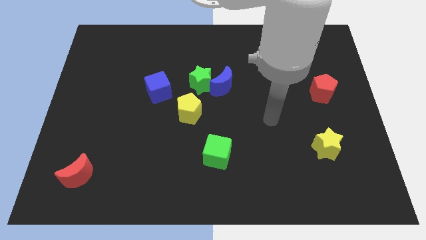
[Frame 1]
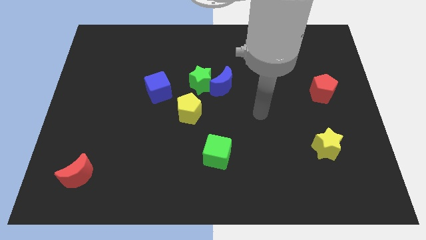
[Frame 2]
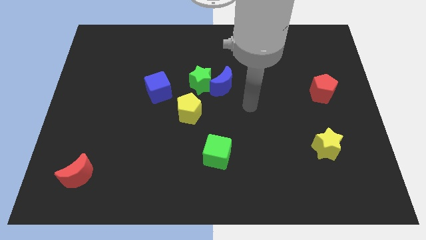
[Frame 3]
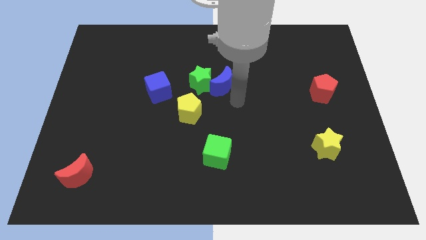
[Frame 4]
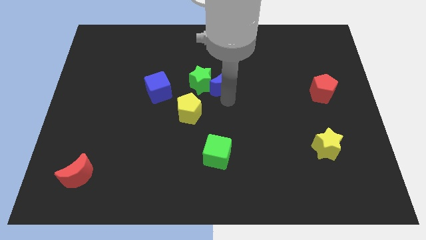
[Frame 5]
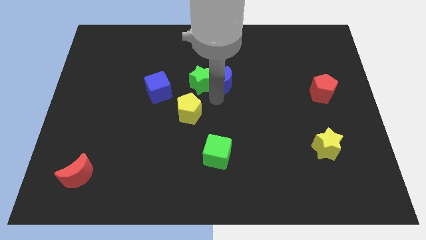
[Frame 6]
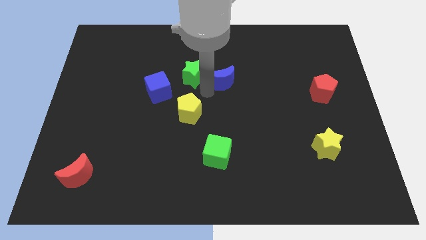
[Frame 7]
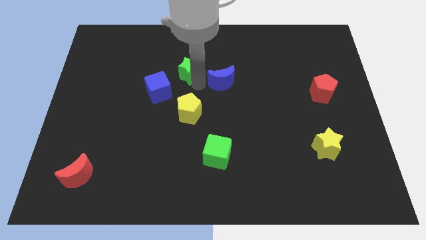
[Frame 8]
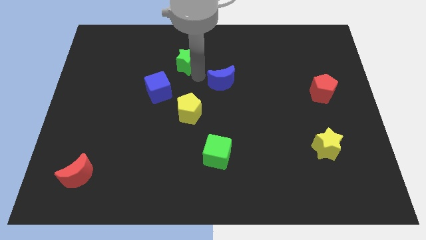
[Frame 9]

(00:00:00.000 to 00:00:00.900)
separate the blue moon from the green star

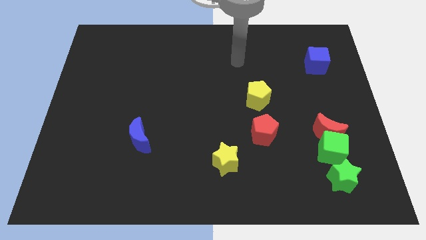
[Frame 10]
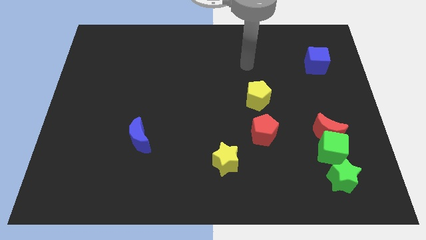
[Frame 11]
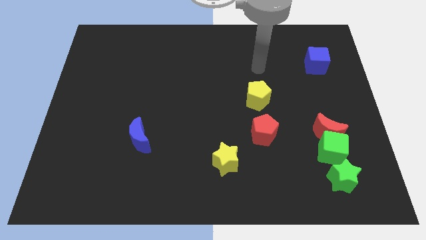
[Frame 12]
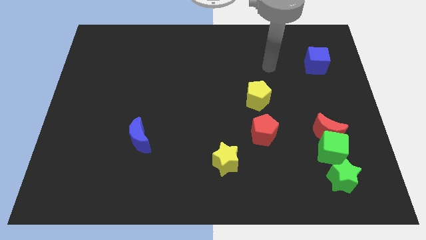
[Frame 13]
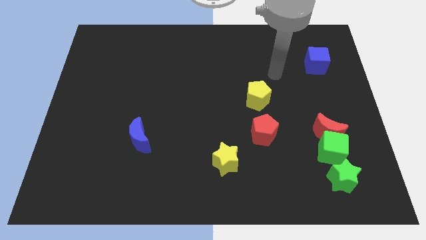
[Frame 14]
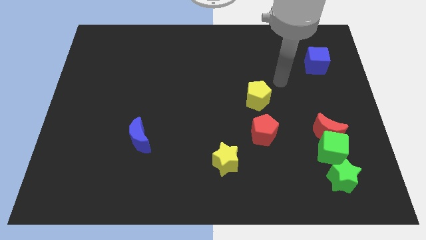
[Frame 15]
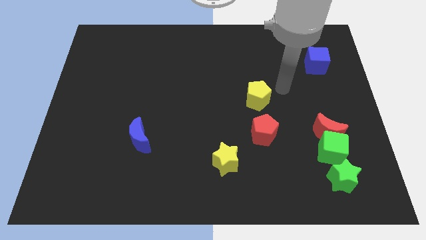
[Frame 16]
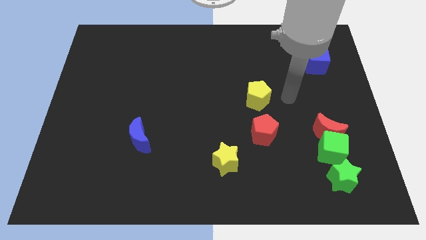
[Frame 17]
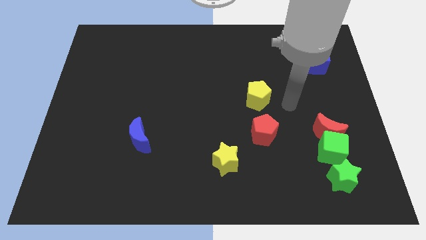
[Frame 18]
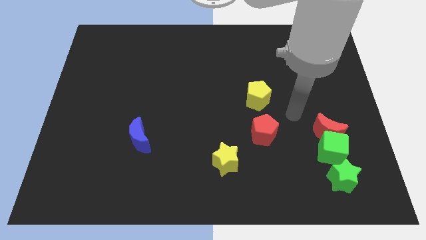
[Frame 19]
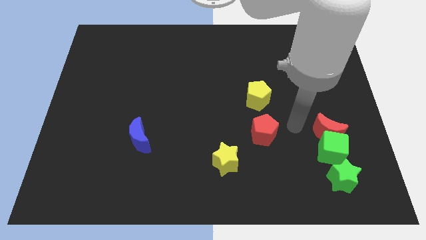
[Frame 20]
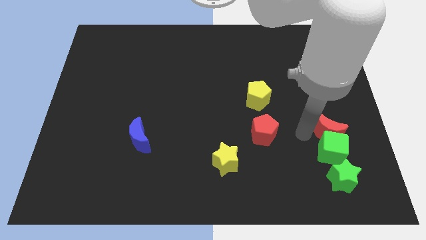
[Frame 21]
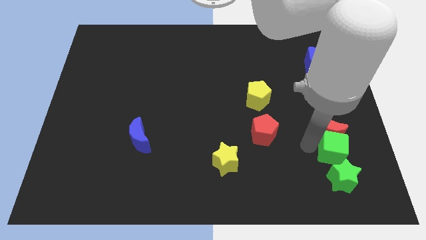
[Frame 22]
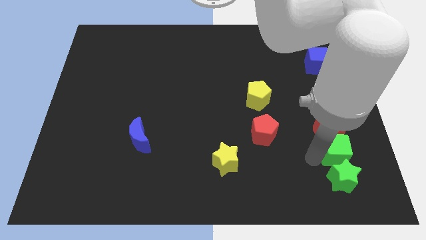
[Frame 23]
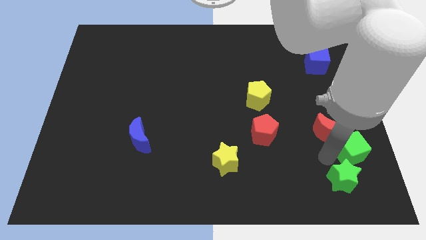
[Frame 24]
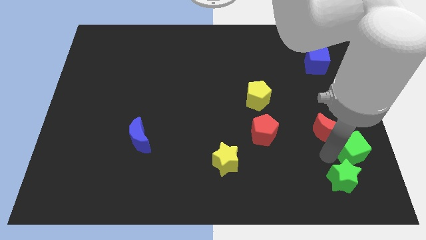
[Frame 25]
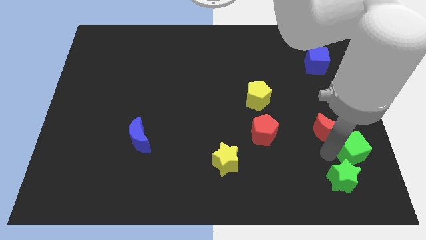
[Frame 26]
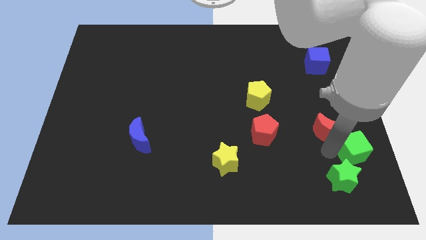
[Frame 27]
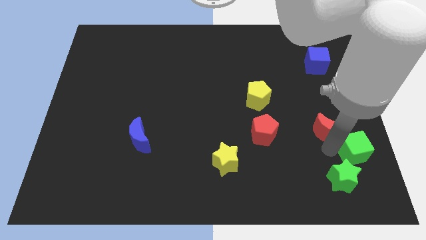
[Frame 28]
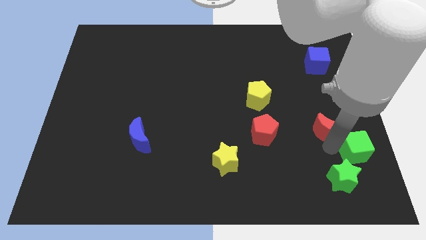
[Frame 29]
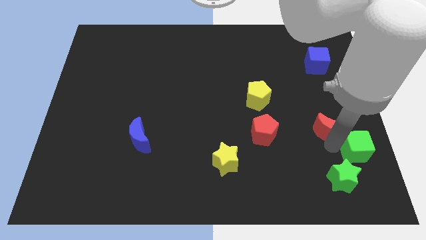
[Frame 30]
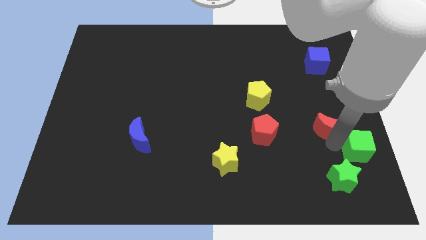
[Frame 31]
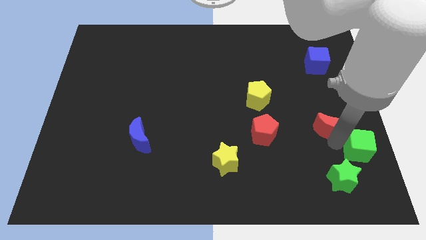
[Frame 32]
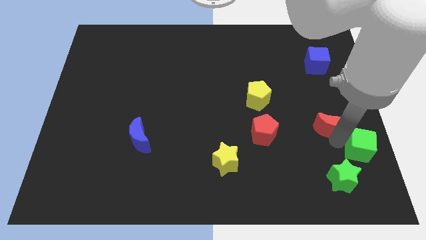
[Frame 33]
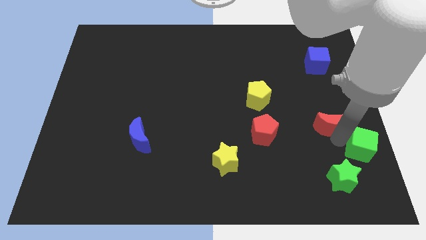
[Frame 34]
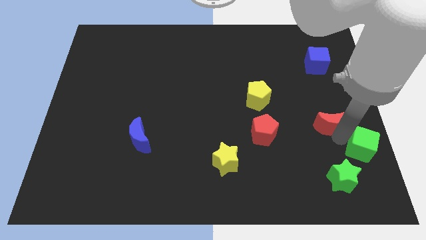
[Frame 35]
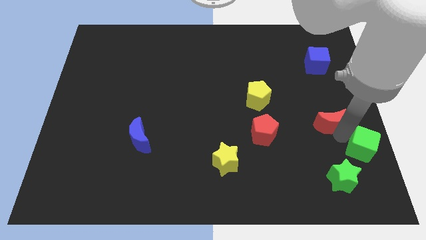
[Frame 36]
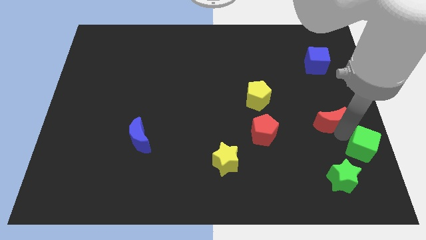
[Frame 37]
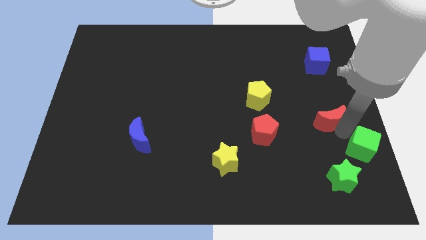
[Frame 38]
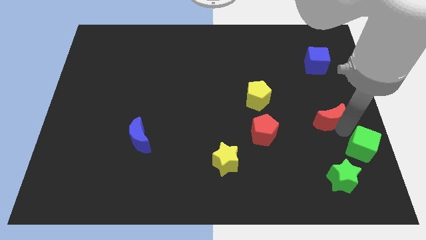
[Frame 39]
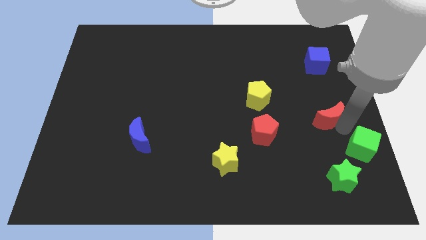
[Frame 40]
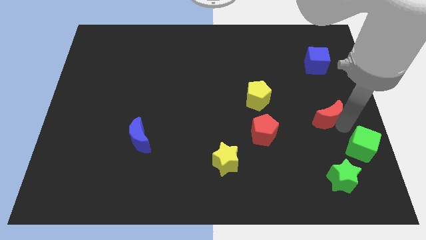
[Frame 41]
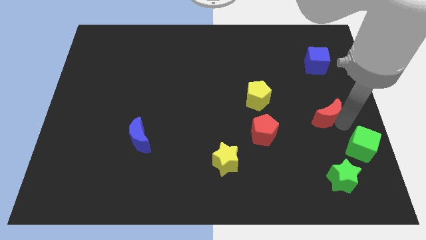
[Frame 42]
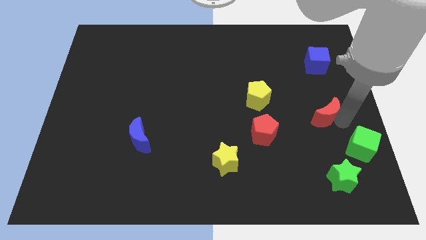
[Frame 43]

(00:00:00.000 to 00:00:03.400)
pull the red moon apart from the green cube

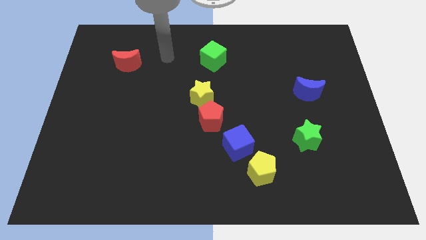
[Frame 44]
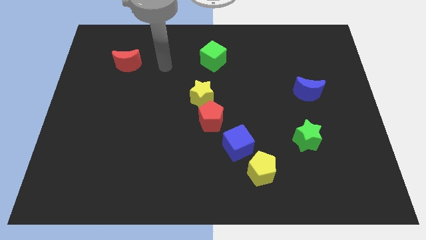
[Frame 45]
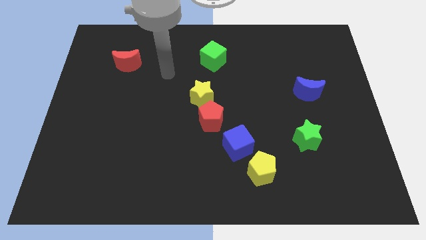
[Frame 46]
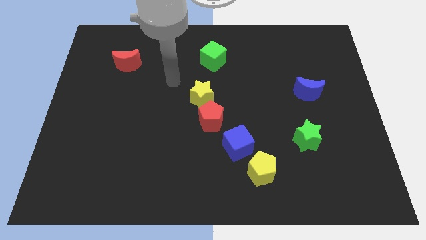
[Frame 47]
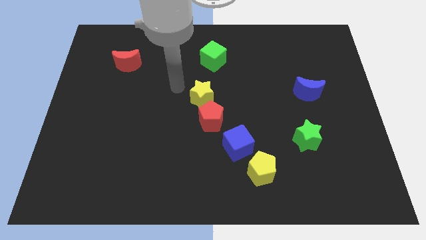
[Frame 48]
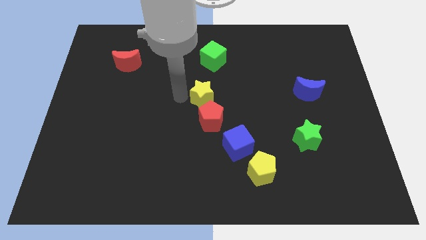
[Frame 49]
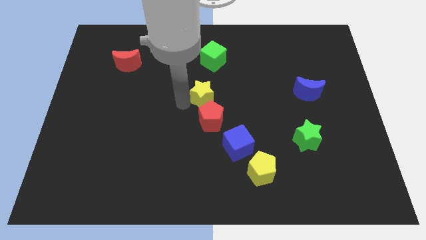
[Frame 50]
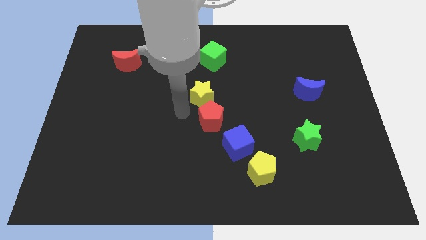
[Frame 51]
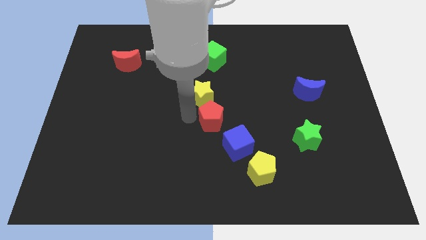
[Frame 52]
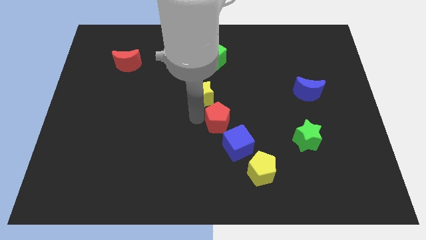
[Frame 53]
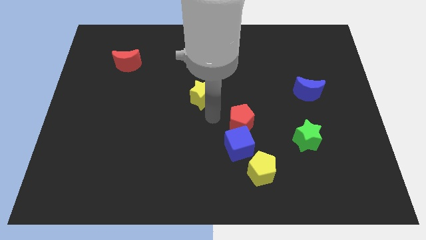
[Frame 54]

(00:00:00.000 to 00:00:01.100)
pull the yellow star apart from the red pentagon

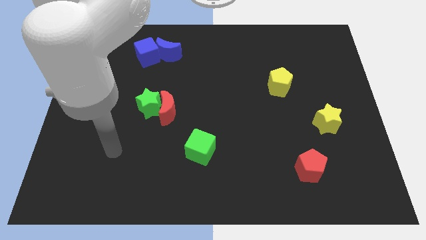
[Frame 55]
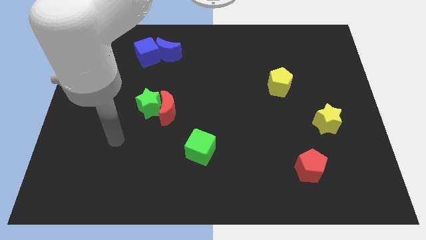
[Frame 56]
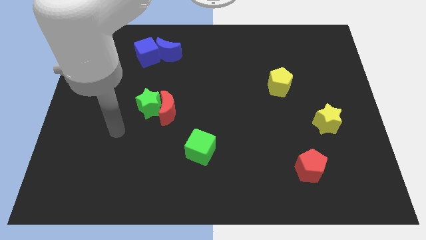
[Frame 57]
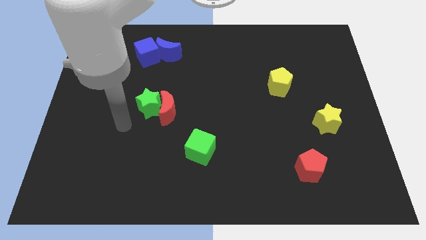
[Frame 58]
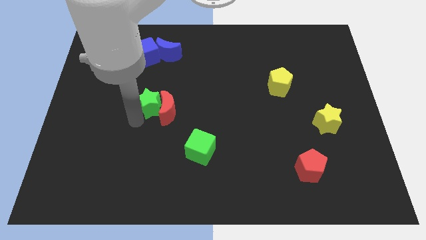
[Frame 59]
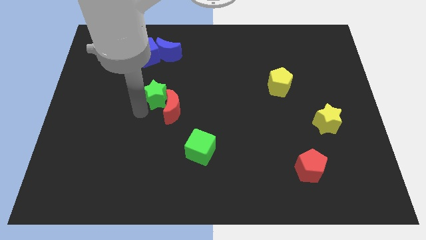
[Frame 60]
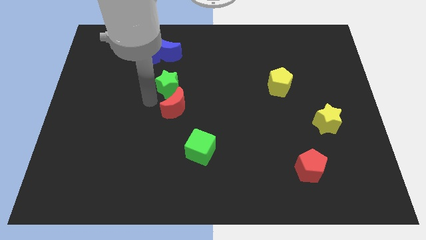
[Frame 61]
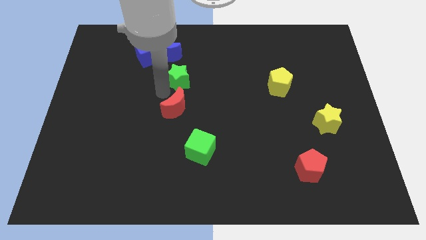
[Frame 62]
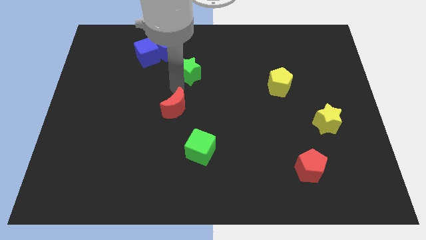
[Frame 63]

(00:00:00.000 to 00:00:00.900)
pull the red moon apart from the green star

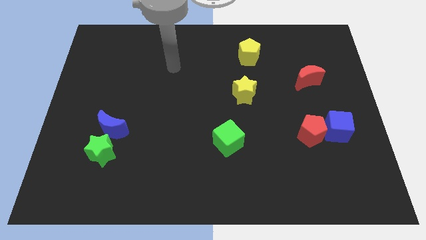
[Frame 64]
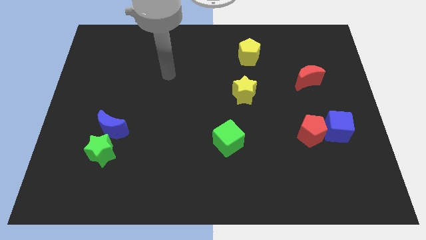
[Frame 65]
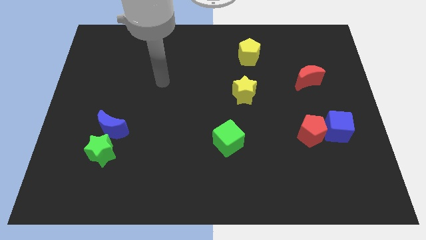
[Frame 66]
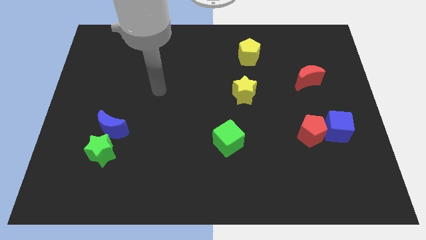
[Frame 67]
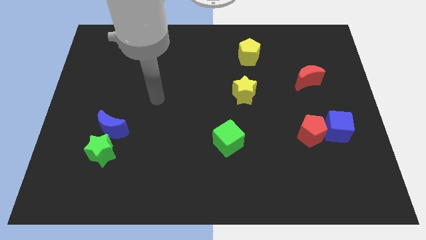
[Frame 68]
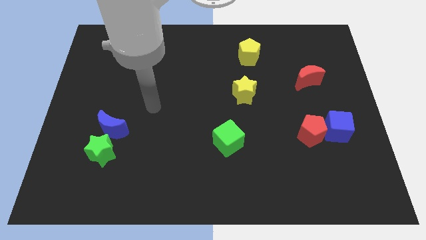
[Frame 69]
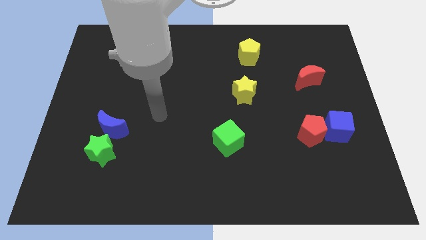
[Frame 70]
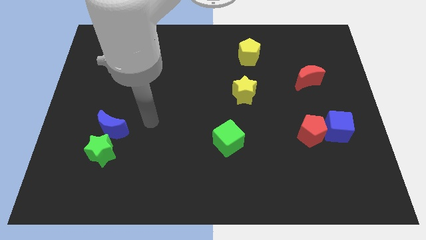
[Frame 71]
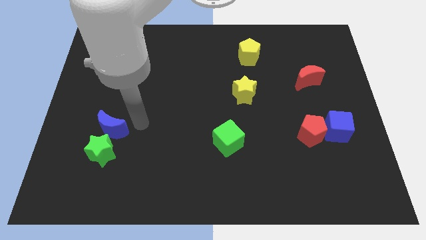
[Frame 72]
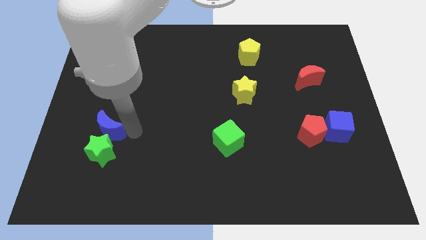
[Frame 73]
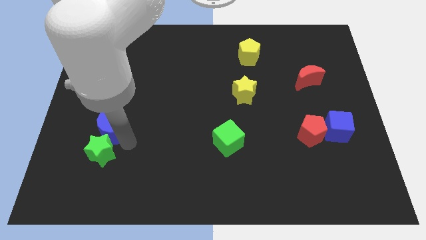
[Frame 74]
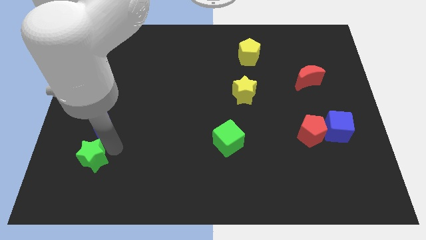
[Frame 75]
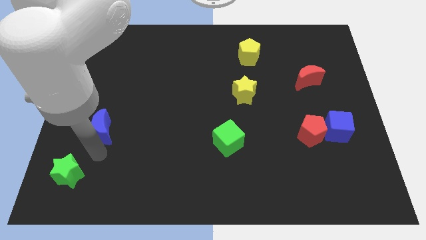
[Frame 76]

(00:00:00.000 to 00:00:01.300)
move the blue moon away from the green star

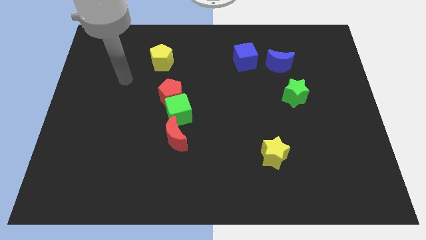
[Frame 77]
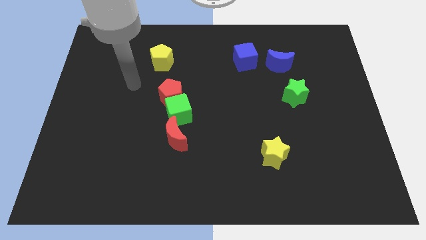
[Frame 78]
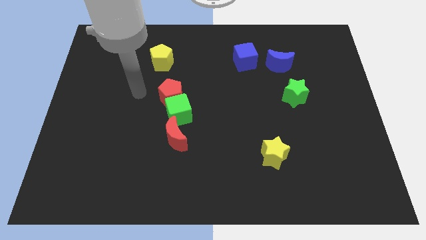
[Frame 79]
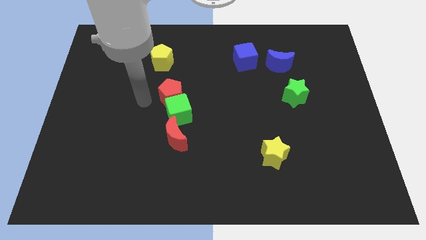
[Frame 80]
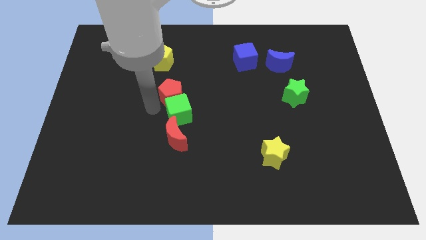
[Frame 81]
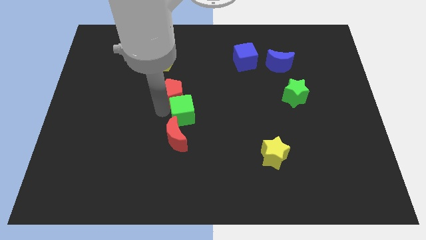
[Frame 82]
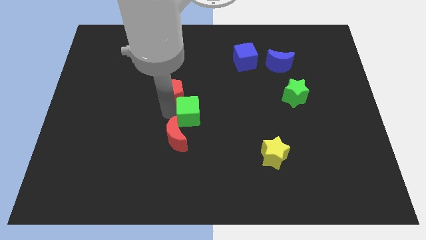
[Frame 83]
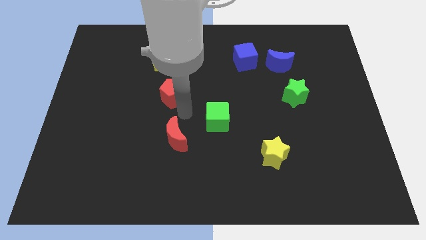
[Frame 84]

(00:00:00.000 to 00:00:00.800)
separate the red pentagon from the green cube

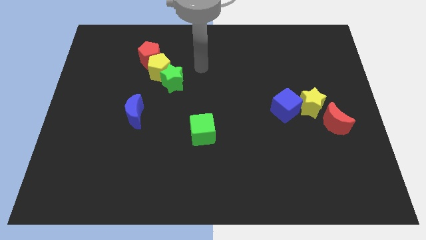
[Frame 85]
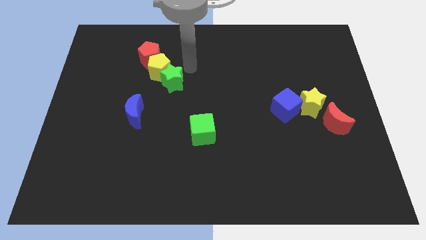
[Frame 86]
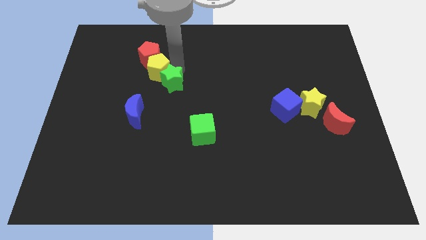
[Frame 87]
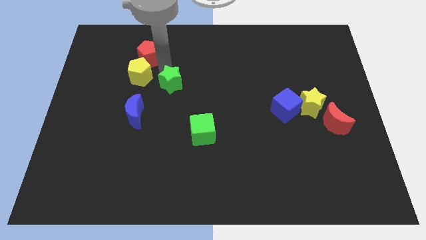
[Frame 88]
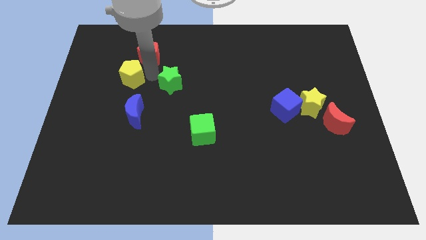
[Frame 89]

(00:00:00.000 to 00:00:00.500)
pull the green star apart from the yellow pentagon

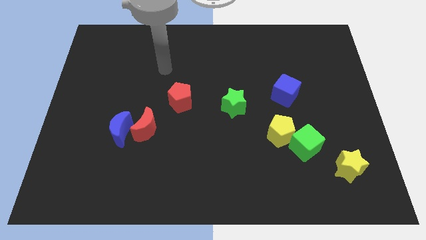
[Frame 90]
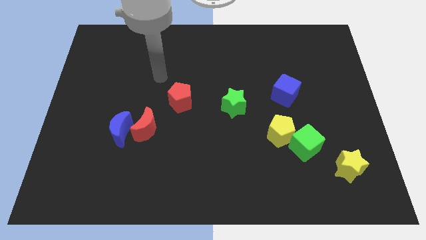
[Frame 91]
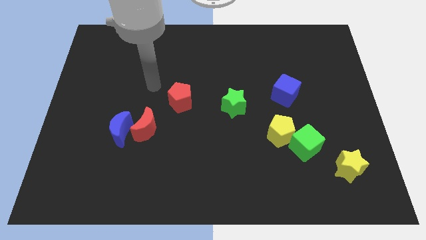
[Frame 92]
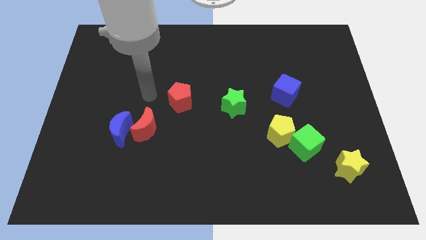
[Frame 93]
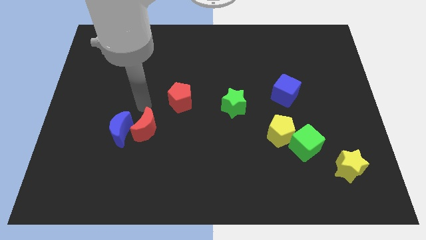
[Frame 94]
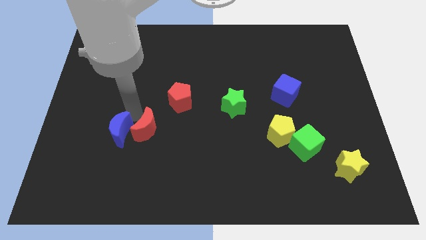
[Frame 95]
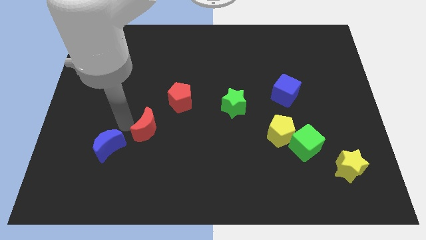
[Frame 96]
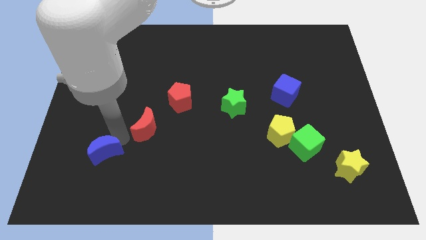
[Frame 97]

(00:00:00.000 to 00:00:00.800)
move the red moon away from the blue moon
